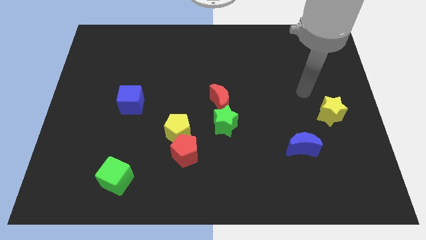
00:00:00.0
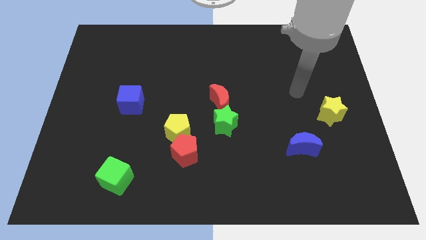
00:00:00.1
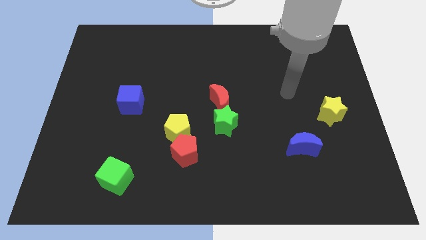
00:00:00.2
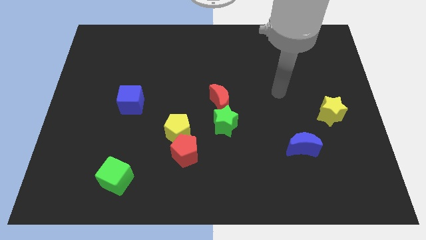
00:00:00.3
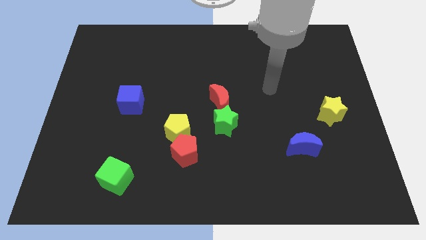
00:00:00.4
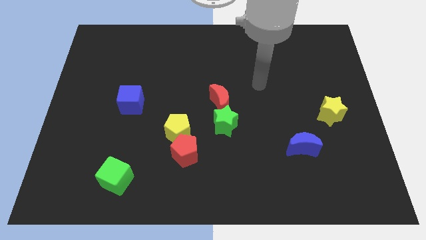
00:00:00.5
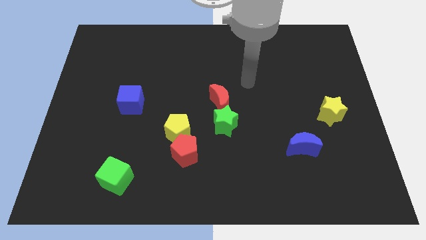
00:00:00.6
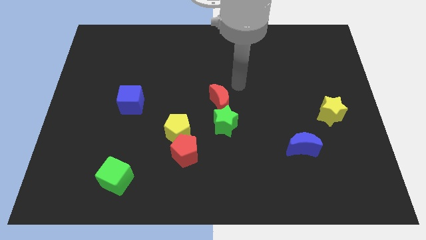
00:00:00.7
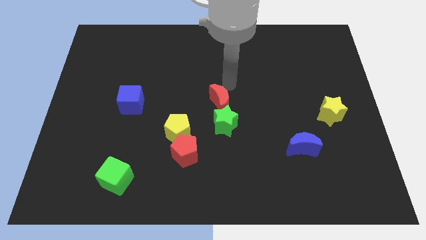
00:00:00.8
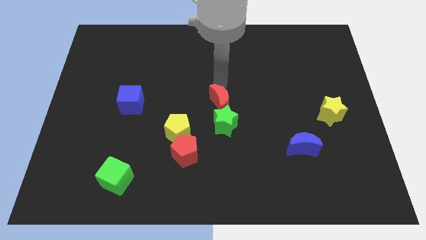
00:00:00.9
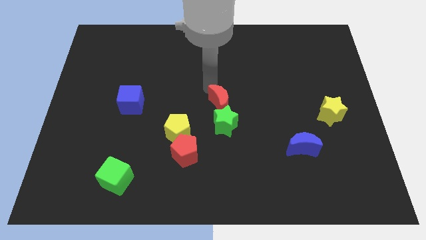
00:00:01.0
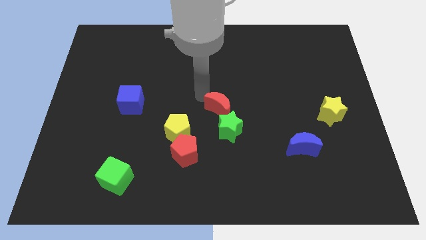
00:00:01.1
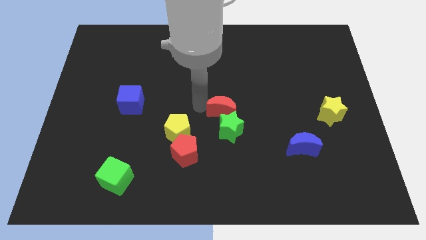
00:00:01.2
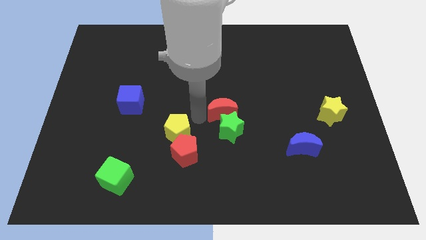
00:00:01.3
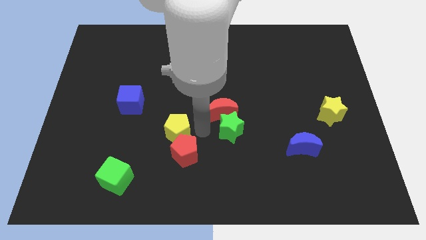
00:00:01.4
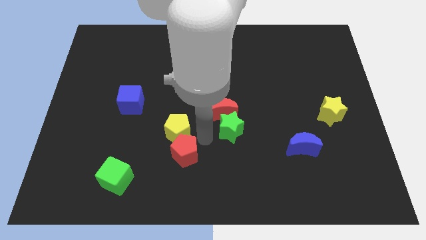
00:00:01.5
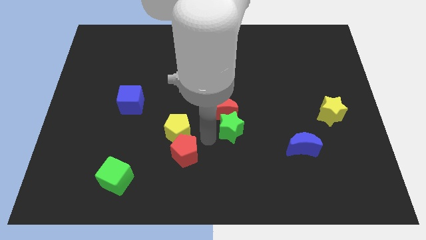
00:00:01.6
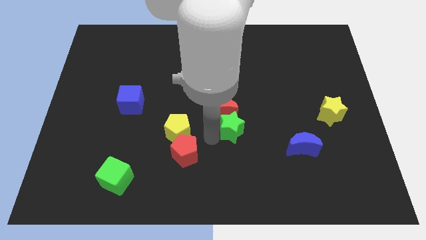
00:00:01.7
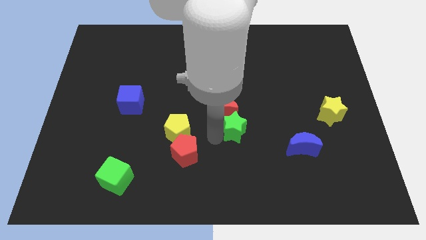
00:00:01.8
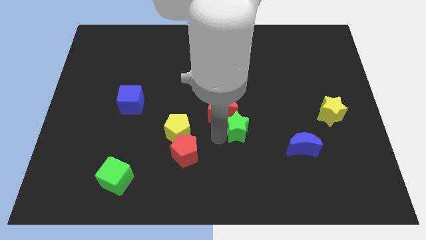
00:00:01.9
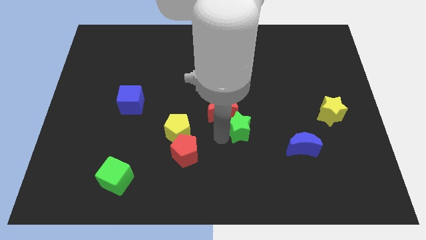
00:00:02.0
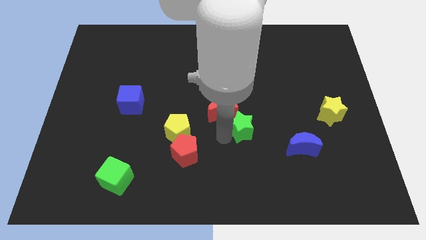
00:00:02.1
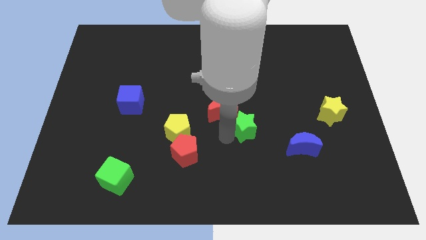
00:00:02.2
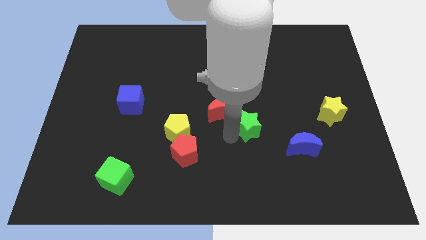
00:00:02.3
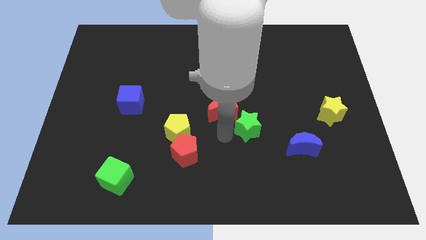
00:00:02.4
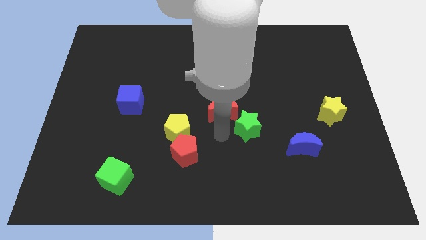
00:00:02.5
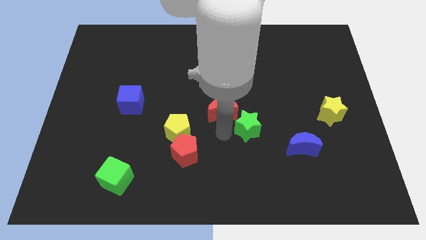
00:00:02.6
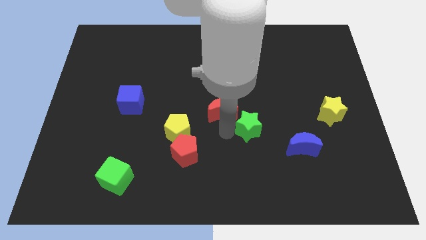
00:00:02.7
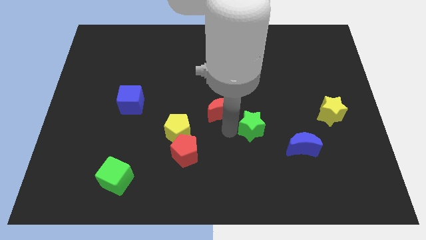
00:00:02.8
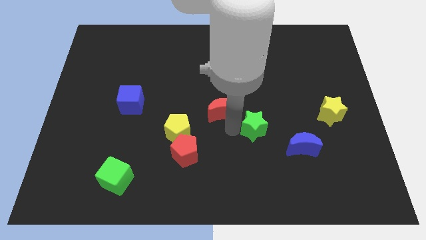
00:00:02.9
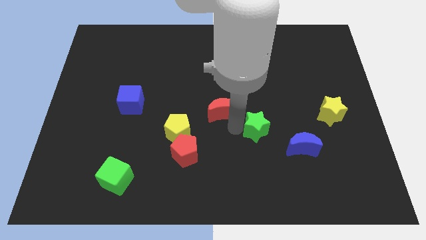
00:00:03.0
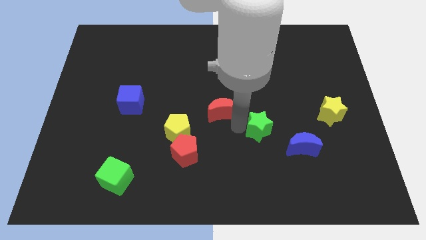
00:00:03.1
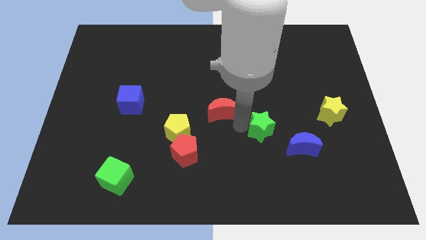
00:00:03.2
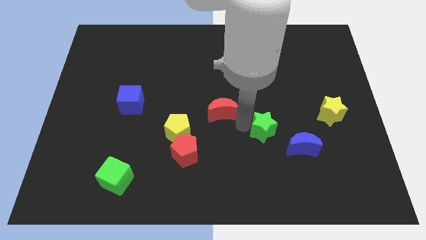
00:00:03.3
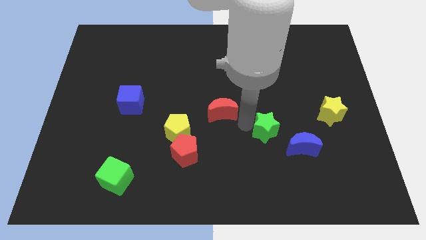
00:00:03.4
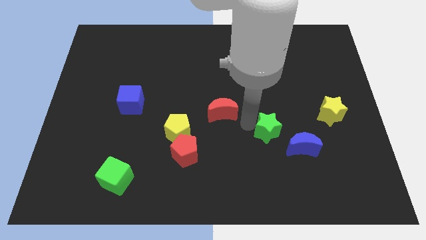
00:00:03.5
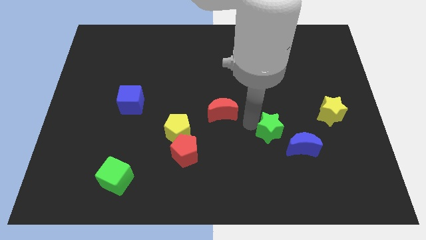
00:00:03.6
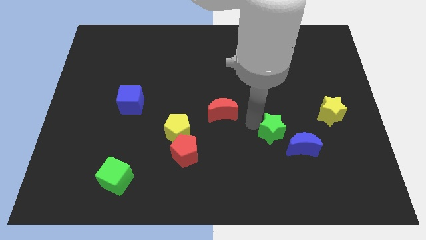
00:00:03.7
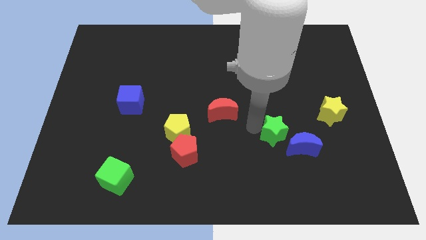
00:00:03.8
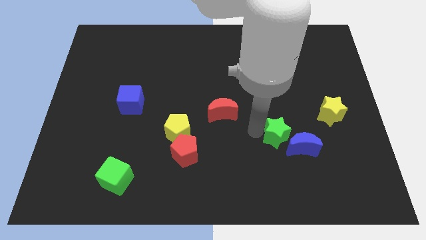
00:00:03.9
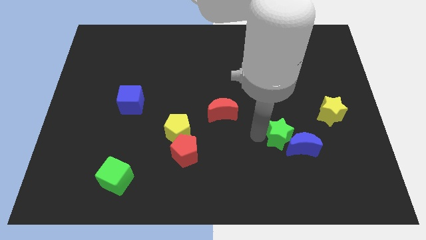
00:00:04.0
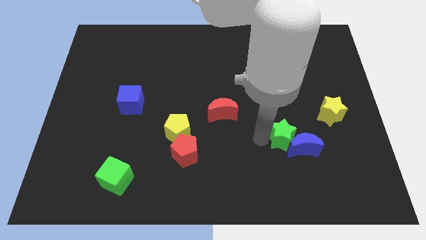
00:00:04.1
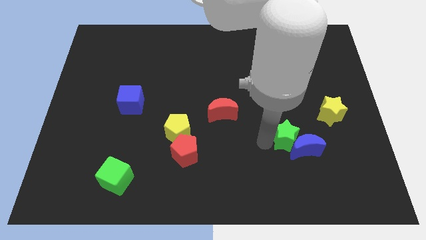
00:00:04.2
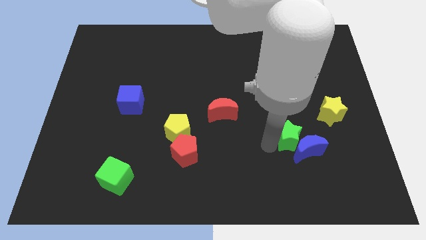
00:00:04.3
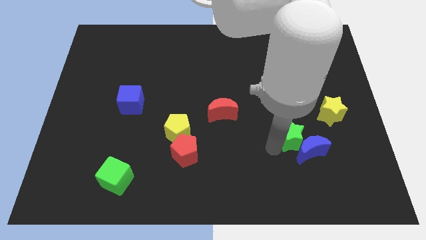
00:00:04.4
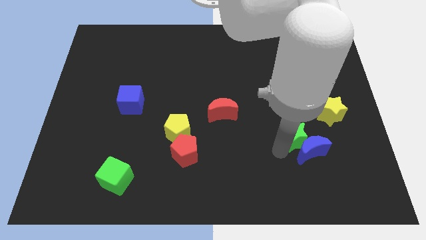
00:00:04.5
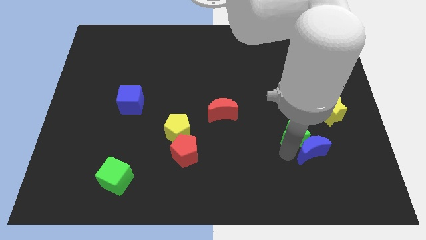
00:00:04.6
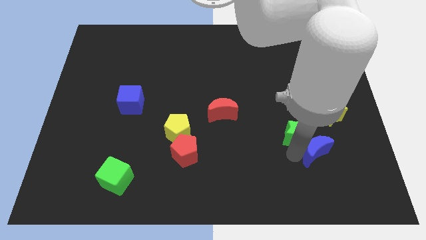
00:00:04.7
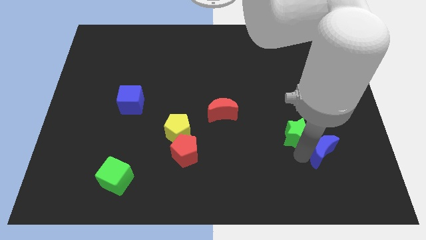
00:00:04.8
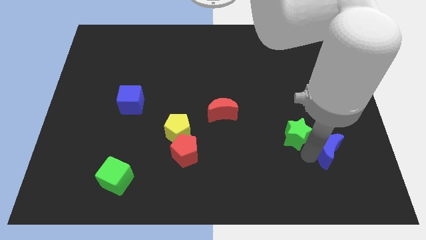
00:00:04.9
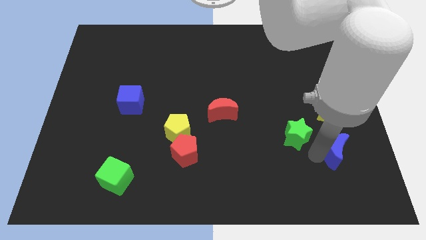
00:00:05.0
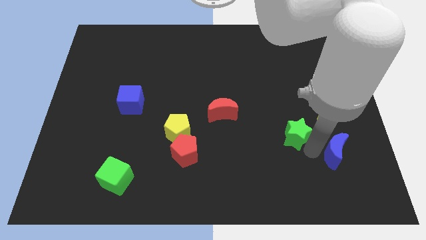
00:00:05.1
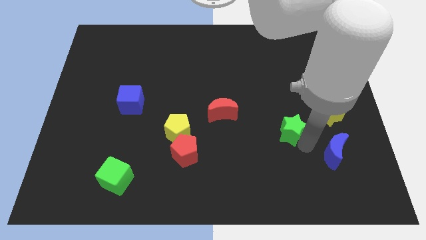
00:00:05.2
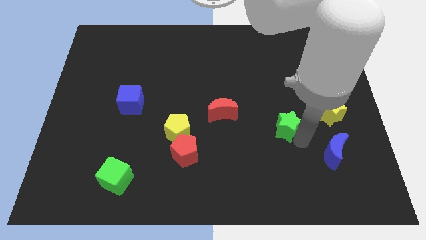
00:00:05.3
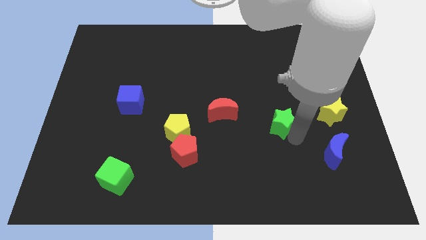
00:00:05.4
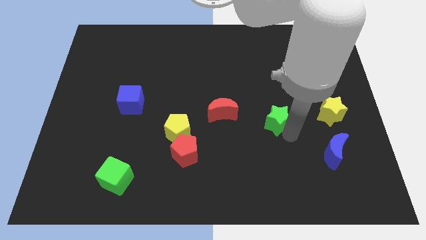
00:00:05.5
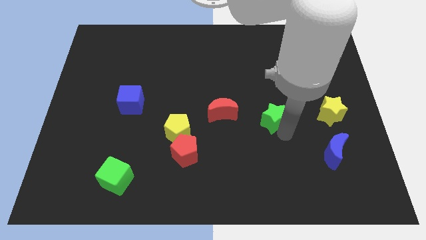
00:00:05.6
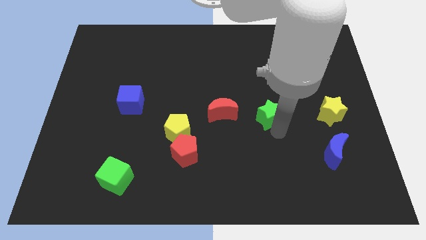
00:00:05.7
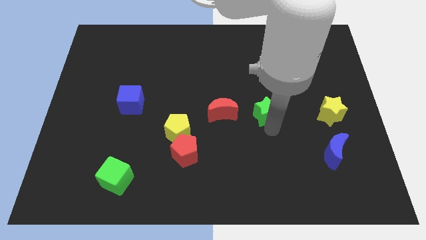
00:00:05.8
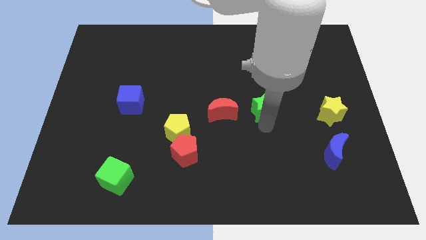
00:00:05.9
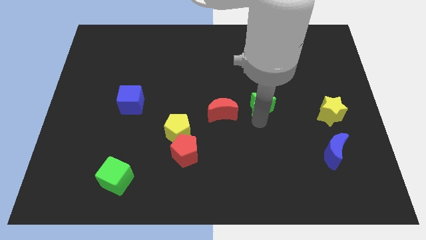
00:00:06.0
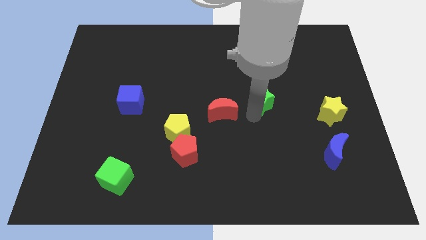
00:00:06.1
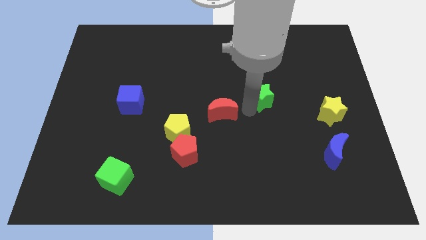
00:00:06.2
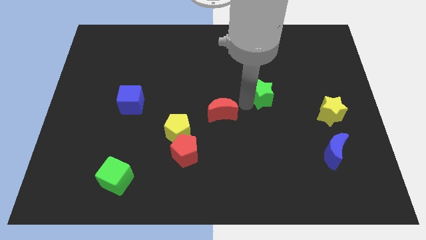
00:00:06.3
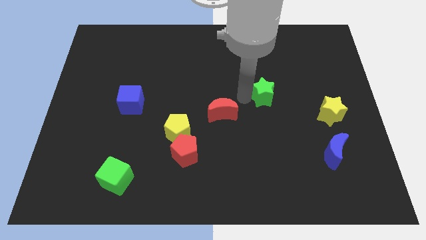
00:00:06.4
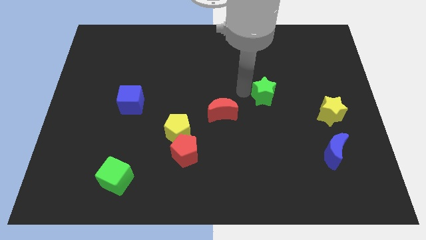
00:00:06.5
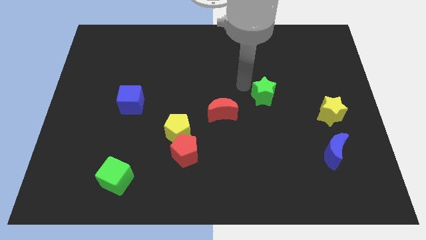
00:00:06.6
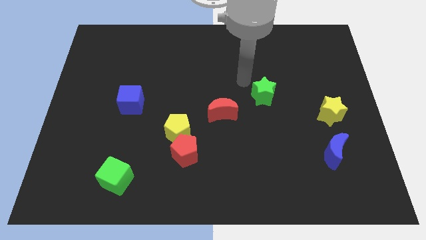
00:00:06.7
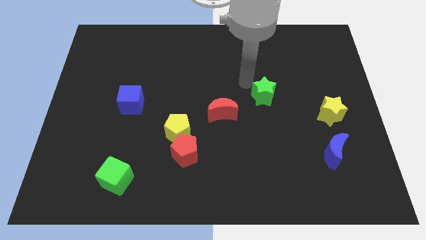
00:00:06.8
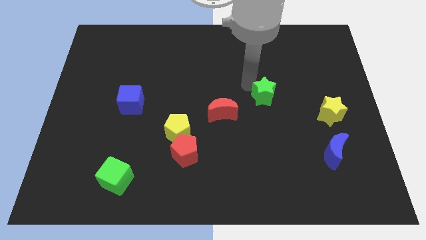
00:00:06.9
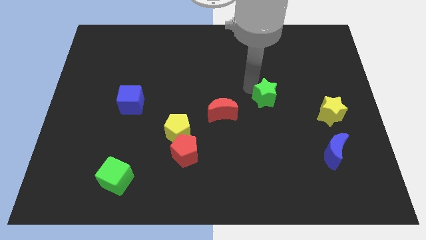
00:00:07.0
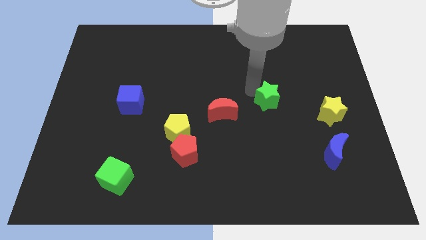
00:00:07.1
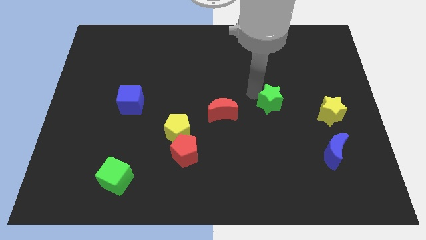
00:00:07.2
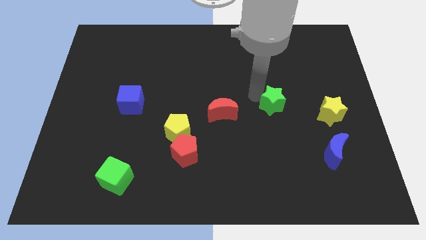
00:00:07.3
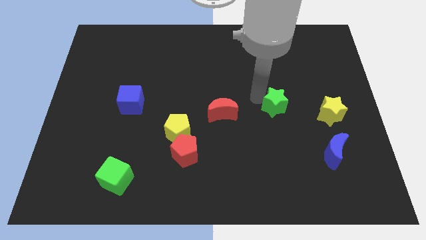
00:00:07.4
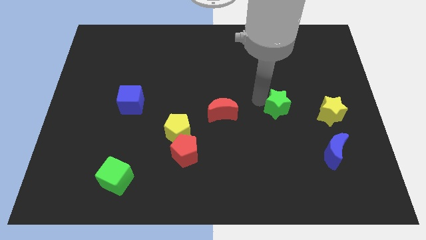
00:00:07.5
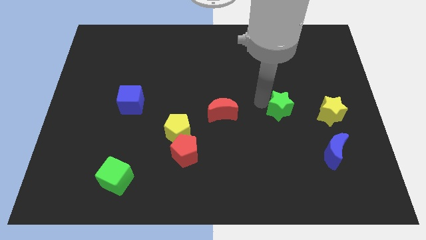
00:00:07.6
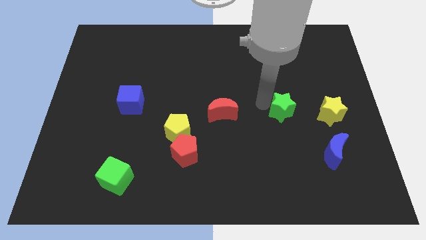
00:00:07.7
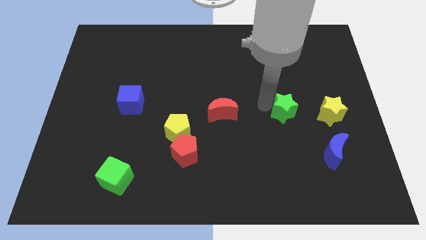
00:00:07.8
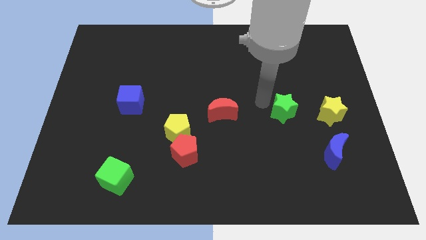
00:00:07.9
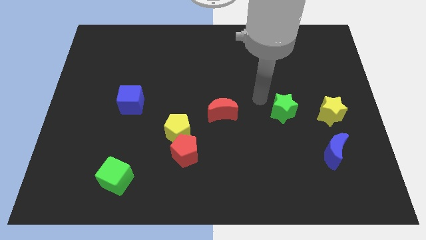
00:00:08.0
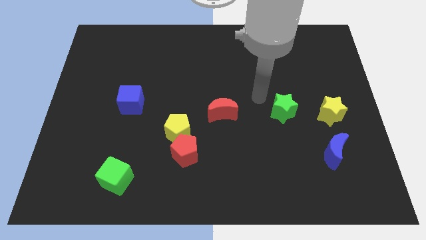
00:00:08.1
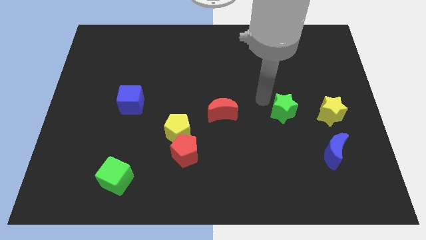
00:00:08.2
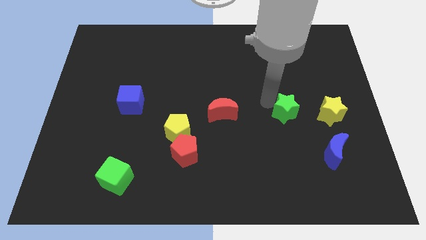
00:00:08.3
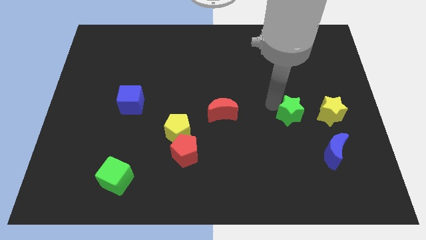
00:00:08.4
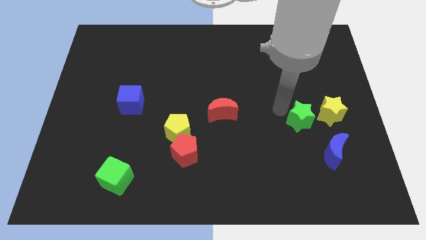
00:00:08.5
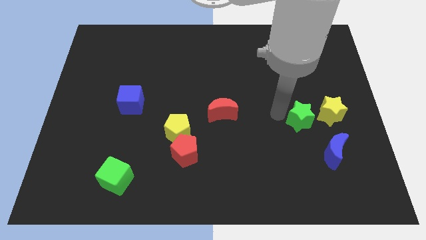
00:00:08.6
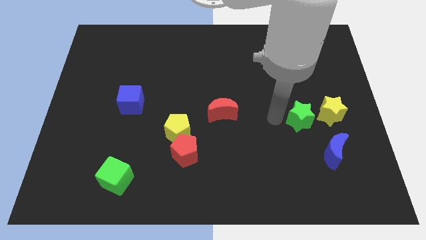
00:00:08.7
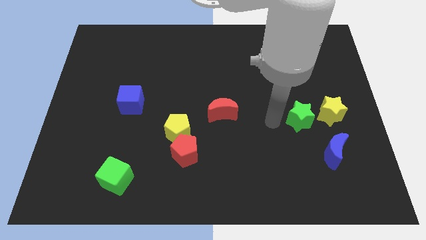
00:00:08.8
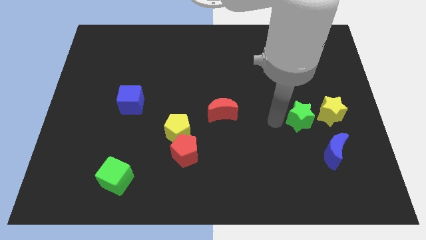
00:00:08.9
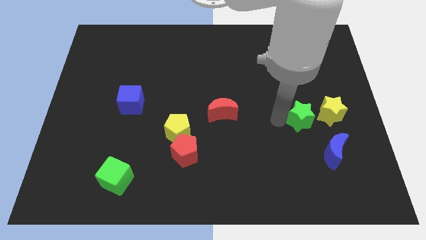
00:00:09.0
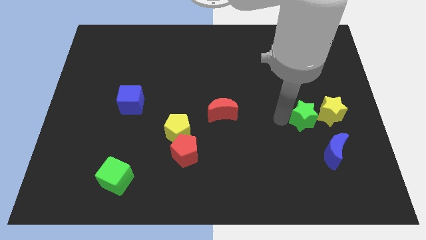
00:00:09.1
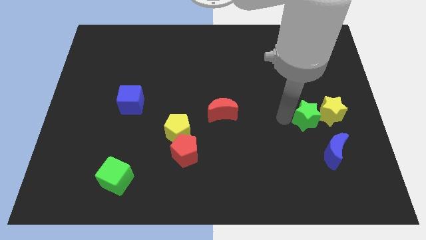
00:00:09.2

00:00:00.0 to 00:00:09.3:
slide the green star towards the yellow star
